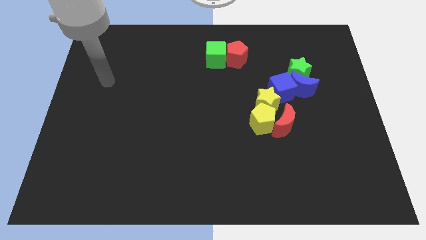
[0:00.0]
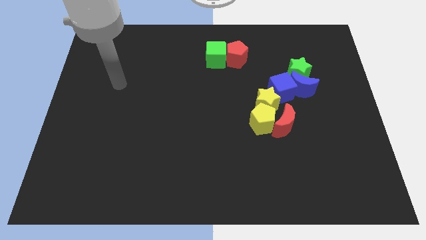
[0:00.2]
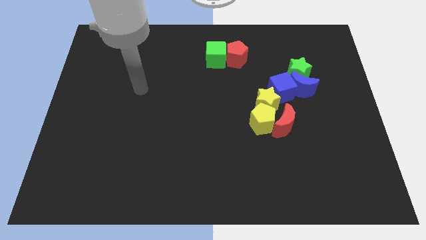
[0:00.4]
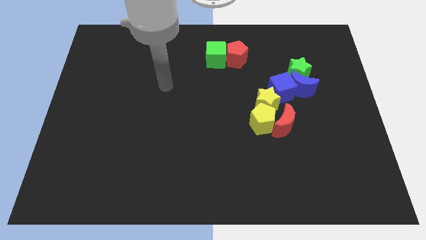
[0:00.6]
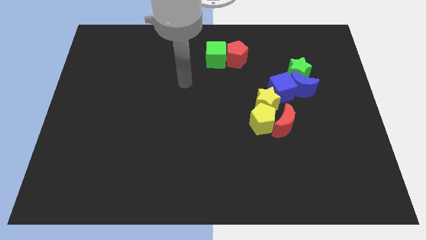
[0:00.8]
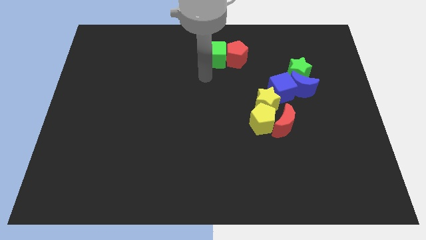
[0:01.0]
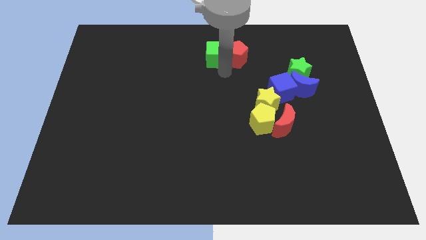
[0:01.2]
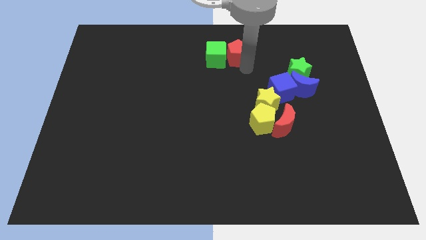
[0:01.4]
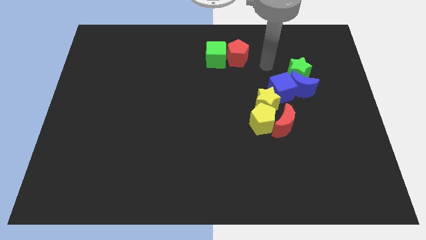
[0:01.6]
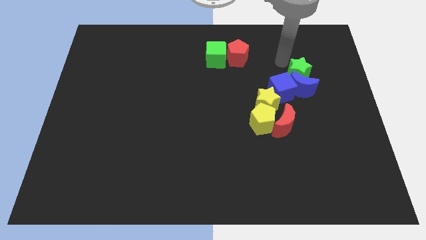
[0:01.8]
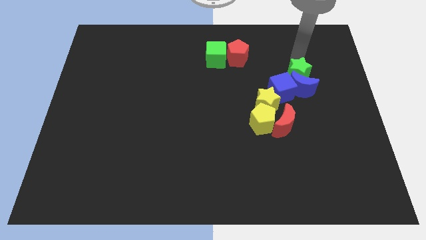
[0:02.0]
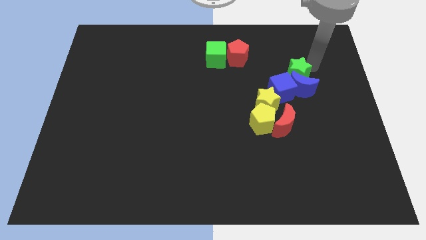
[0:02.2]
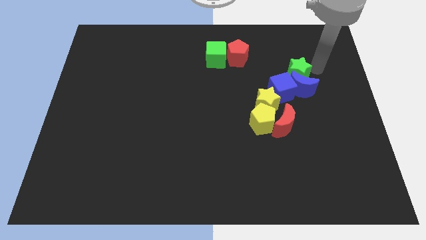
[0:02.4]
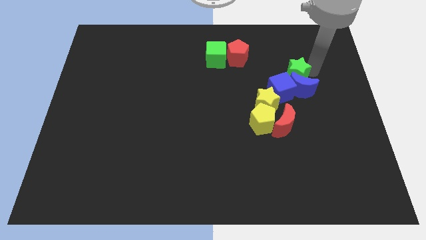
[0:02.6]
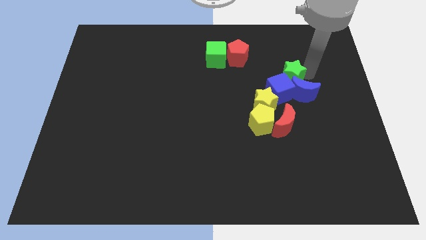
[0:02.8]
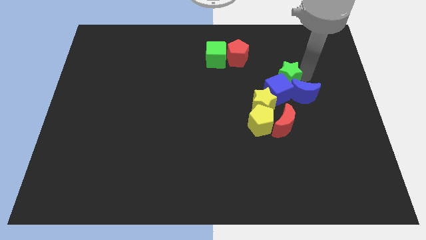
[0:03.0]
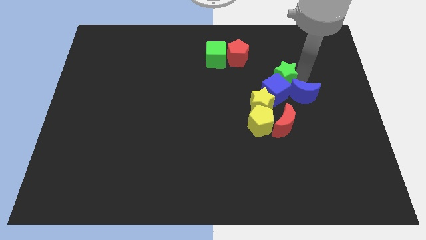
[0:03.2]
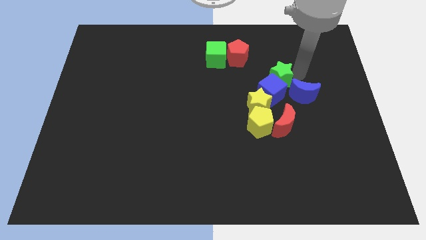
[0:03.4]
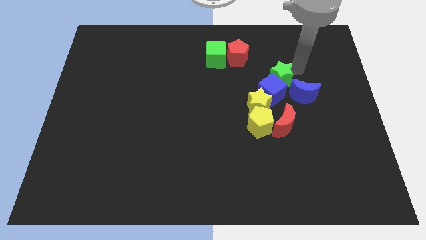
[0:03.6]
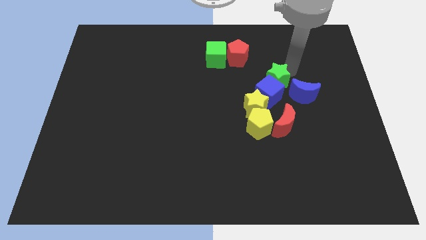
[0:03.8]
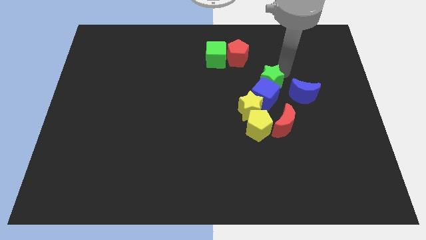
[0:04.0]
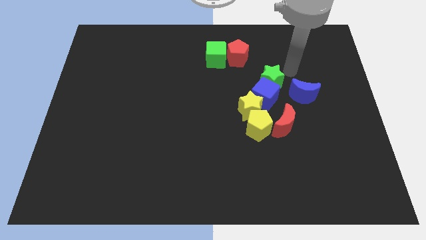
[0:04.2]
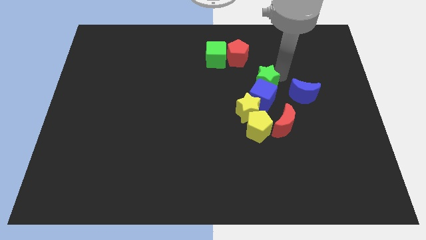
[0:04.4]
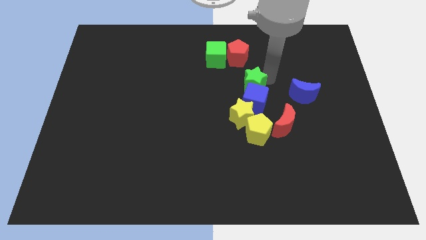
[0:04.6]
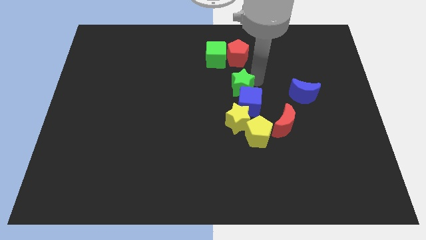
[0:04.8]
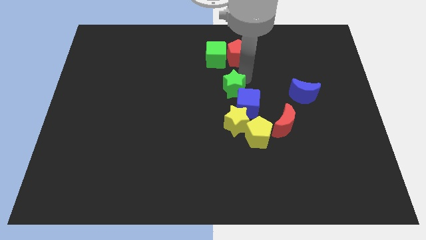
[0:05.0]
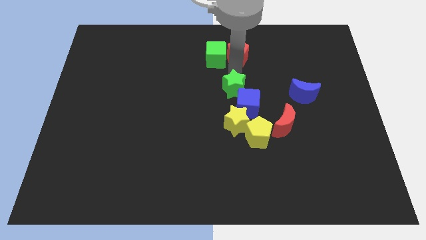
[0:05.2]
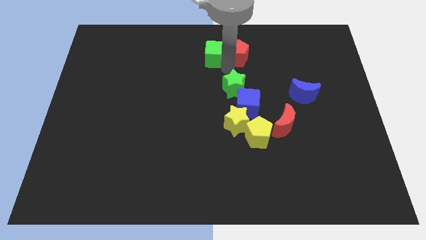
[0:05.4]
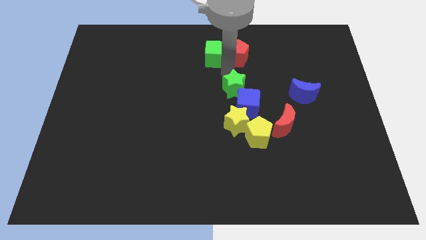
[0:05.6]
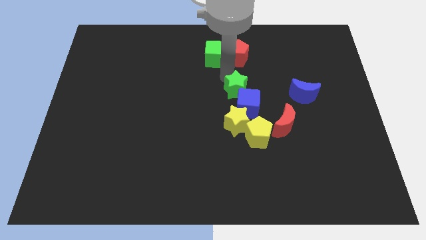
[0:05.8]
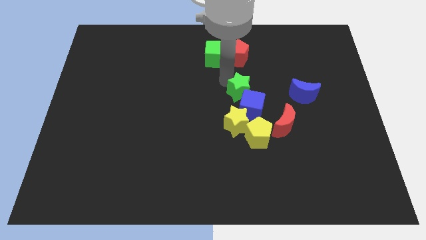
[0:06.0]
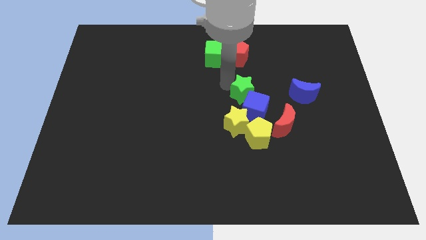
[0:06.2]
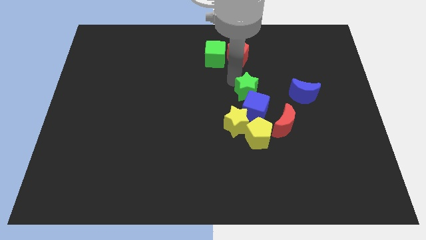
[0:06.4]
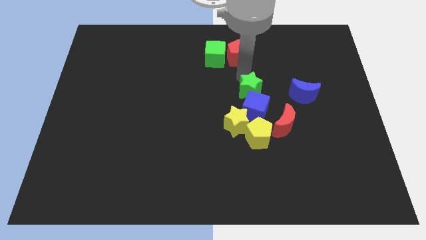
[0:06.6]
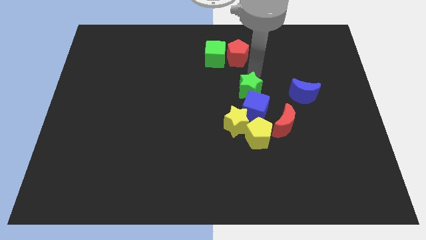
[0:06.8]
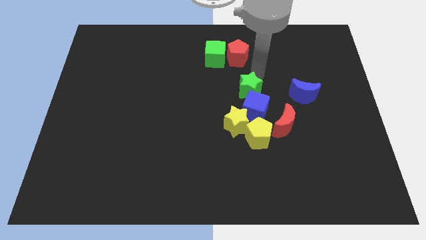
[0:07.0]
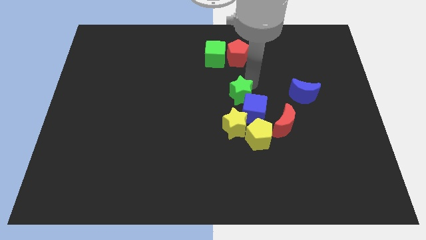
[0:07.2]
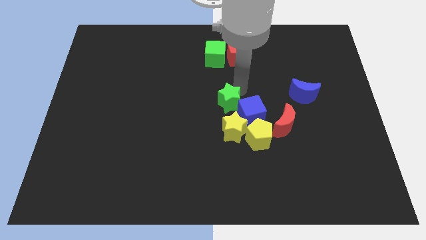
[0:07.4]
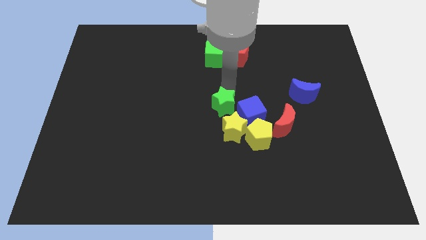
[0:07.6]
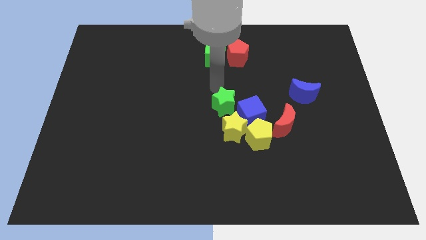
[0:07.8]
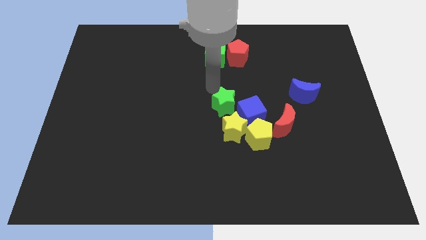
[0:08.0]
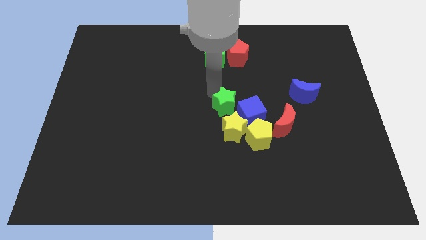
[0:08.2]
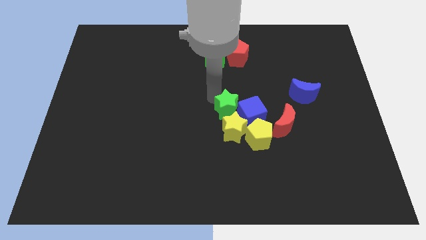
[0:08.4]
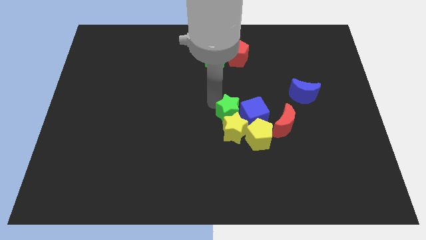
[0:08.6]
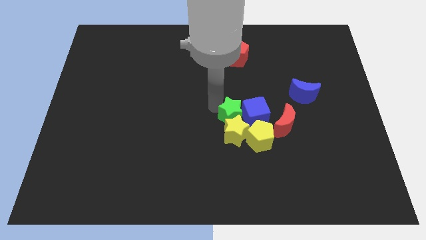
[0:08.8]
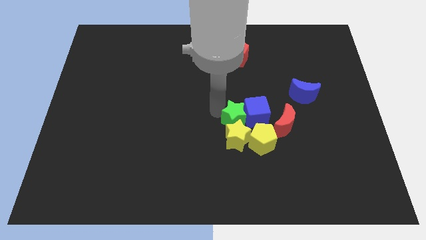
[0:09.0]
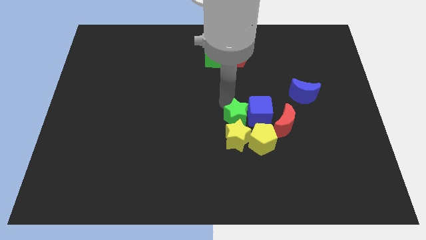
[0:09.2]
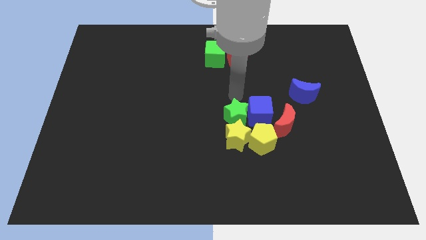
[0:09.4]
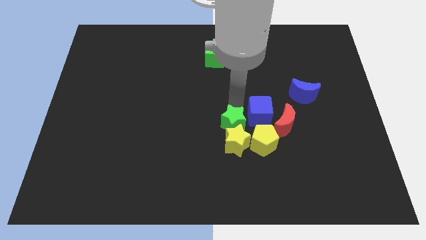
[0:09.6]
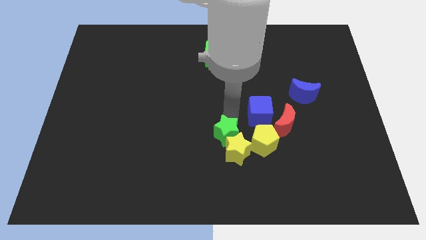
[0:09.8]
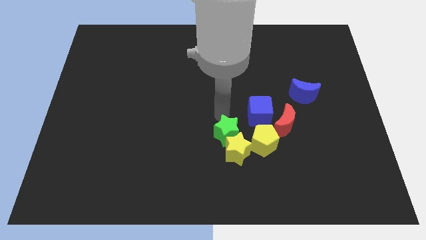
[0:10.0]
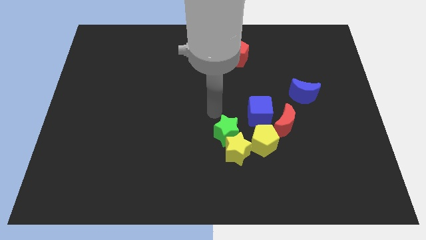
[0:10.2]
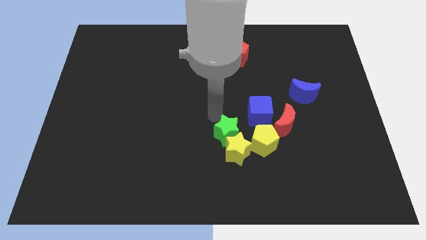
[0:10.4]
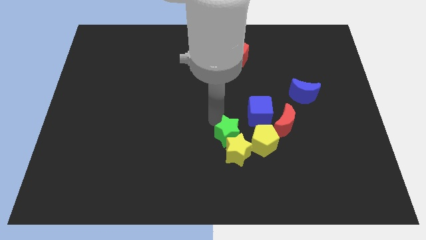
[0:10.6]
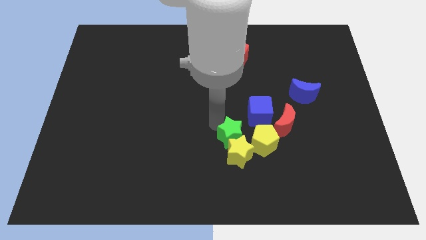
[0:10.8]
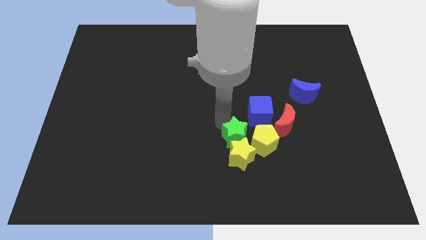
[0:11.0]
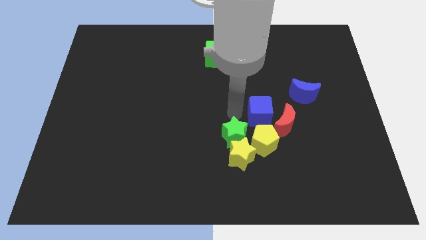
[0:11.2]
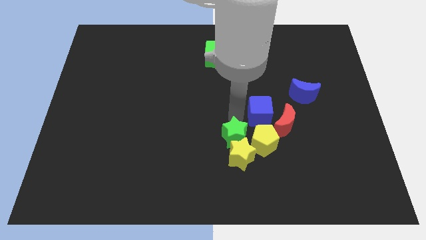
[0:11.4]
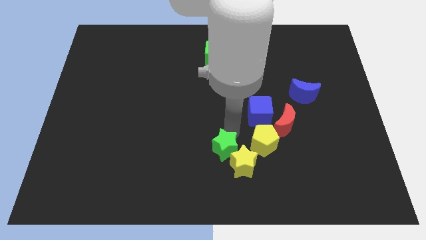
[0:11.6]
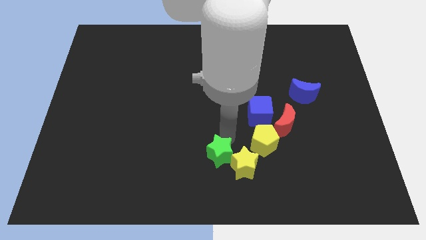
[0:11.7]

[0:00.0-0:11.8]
slide the green star to the bottom
